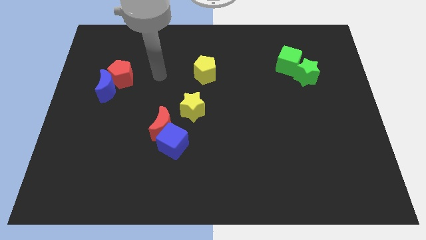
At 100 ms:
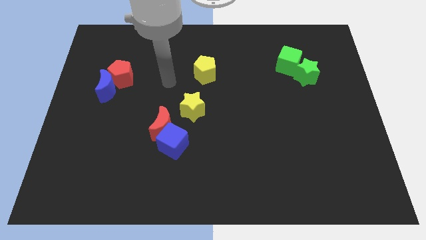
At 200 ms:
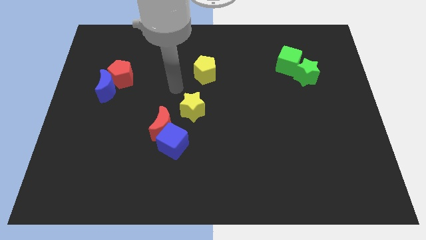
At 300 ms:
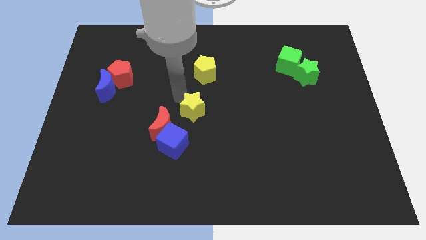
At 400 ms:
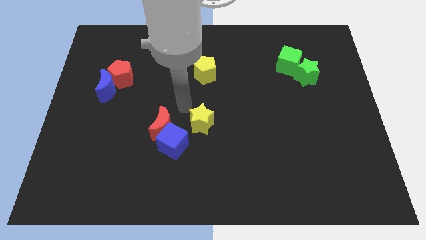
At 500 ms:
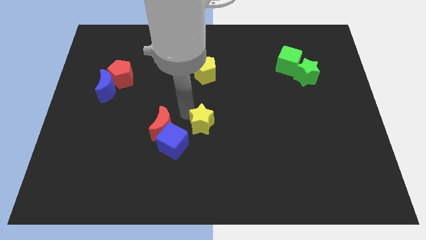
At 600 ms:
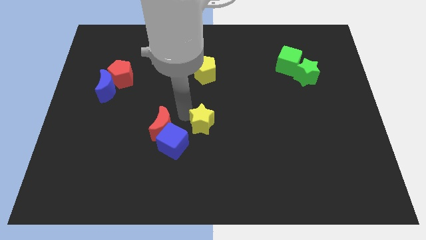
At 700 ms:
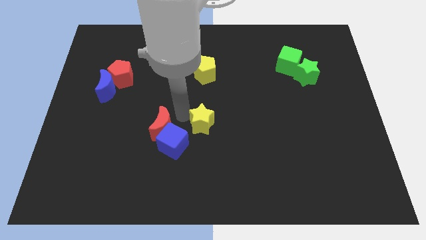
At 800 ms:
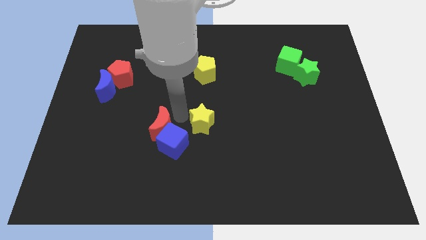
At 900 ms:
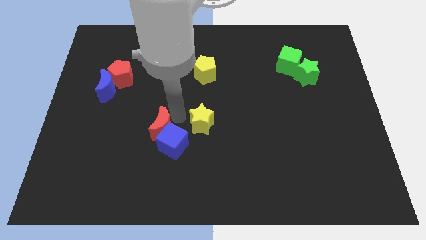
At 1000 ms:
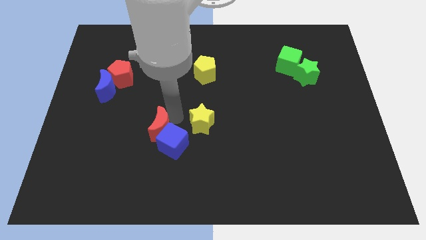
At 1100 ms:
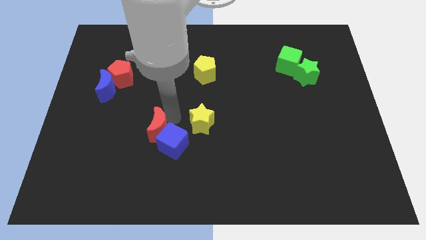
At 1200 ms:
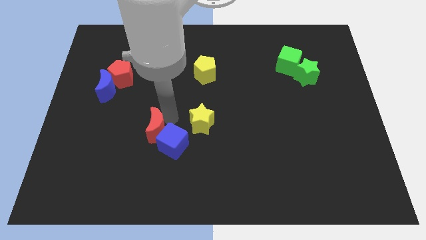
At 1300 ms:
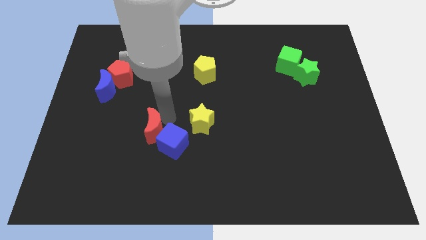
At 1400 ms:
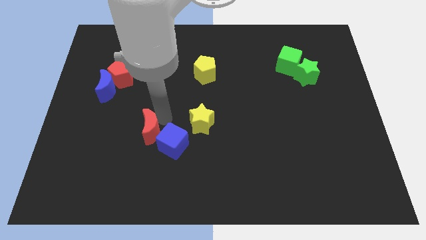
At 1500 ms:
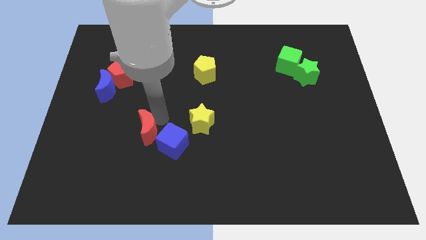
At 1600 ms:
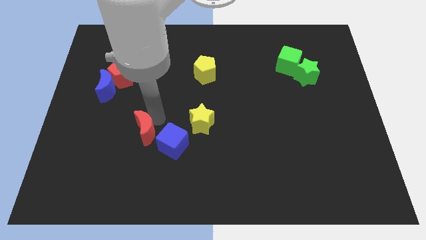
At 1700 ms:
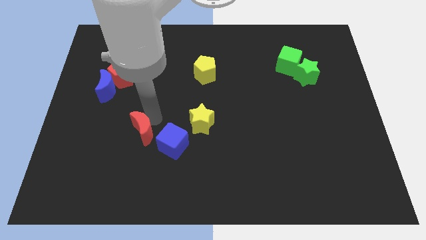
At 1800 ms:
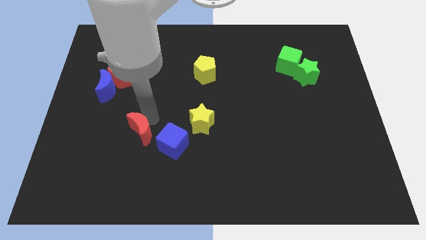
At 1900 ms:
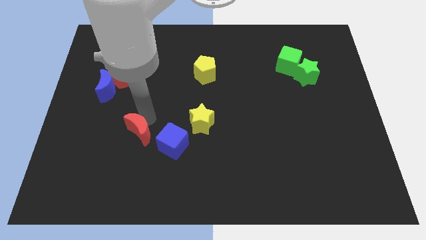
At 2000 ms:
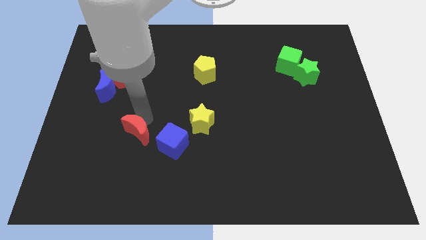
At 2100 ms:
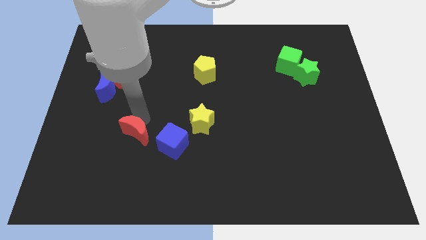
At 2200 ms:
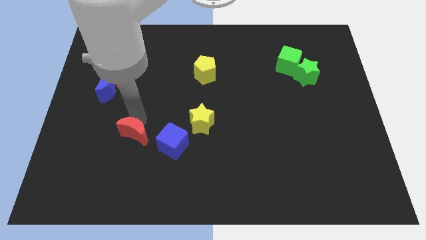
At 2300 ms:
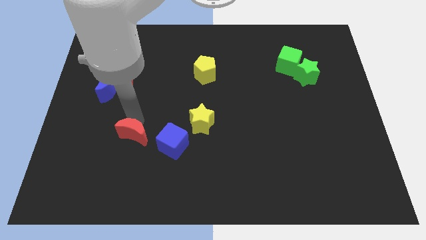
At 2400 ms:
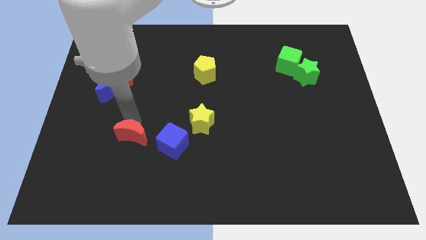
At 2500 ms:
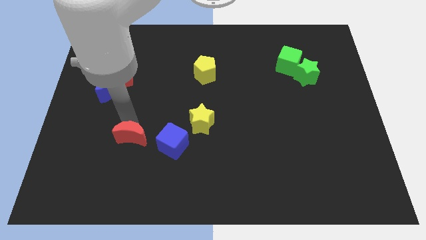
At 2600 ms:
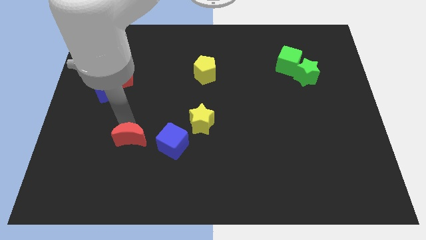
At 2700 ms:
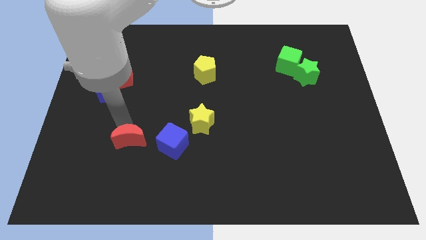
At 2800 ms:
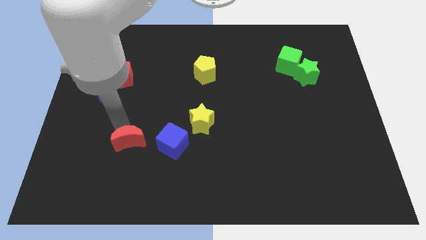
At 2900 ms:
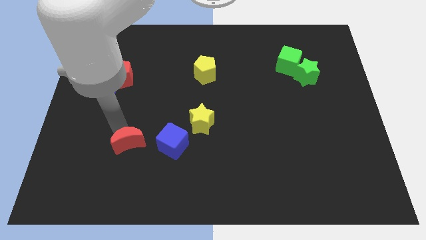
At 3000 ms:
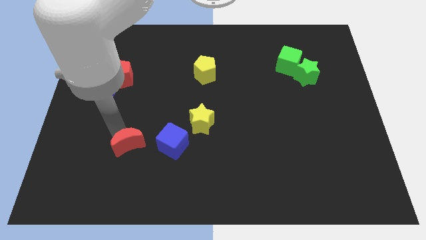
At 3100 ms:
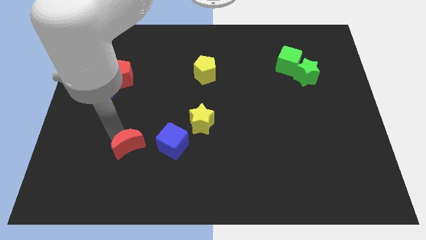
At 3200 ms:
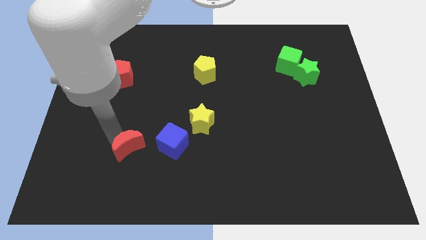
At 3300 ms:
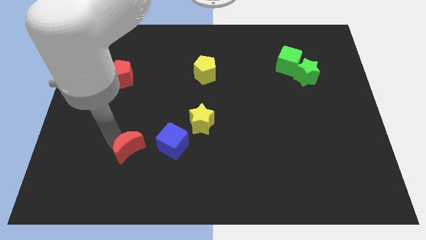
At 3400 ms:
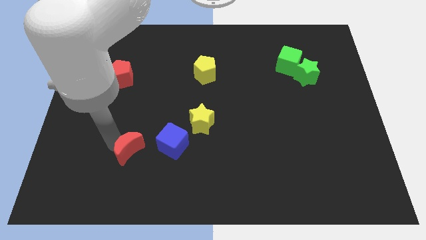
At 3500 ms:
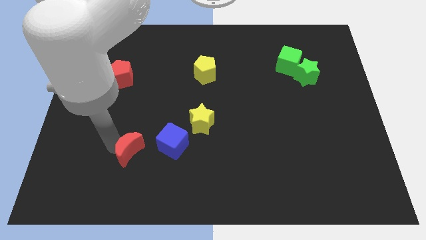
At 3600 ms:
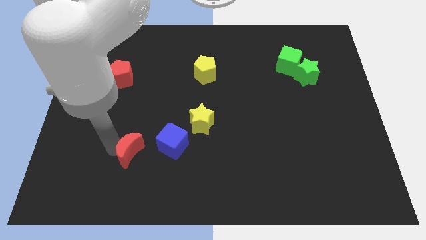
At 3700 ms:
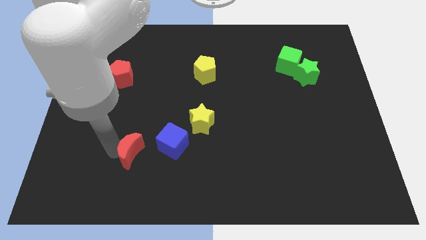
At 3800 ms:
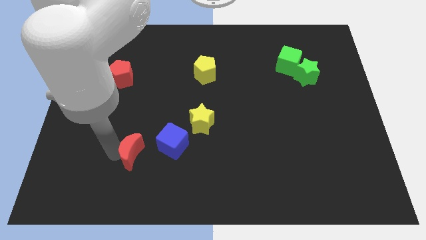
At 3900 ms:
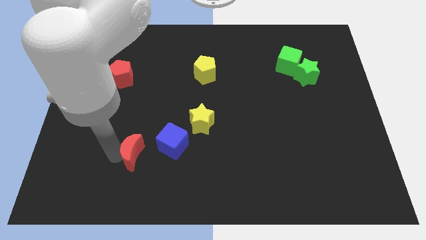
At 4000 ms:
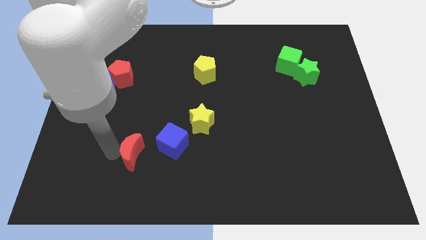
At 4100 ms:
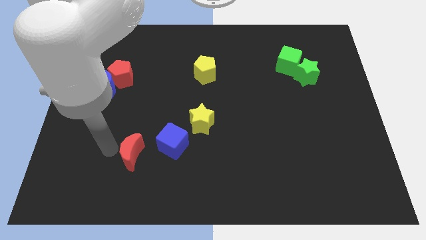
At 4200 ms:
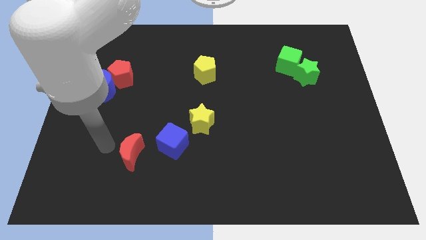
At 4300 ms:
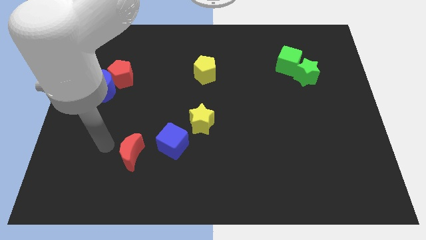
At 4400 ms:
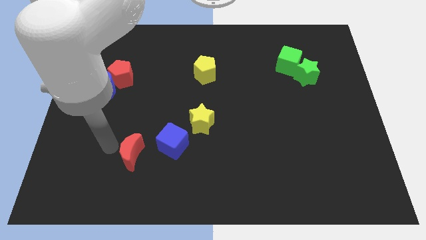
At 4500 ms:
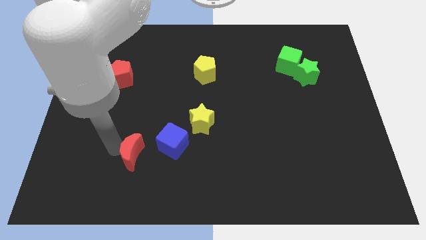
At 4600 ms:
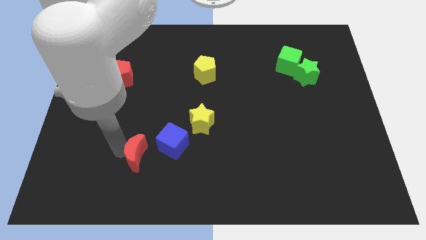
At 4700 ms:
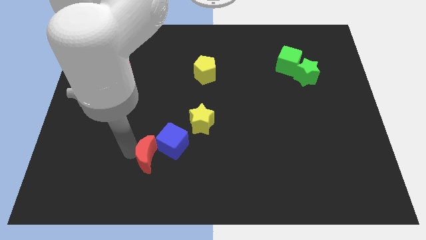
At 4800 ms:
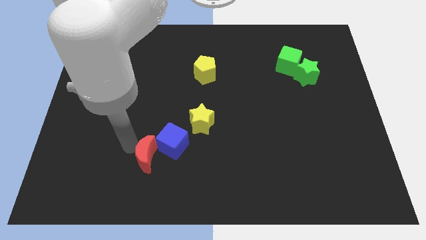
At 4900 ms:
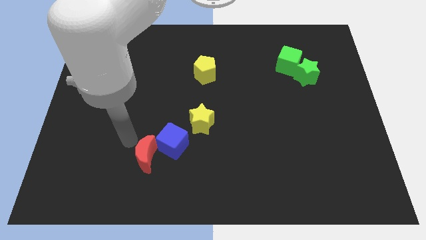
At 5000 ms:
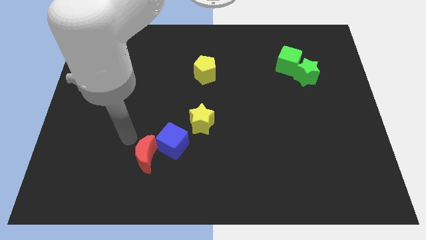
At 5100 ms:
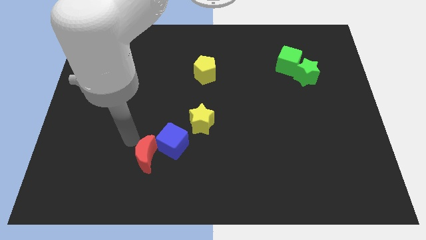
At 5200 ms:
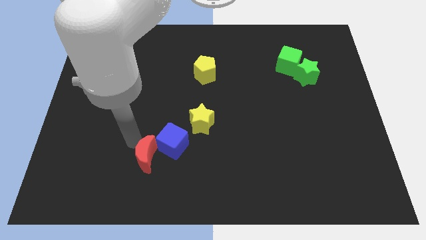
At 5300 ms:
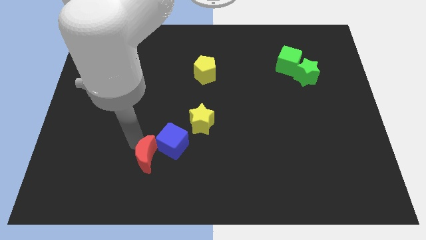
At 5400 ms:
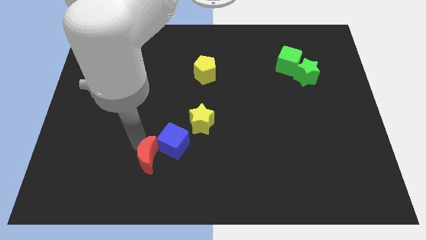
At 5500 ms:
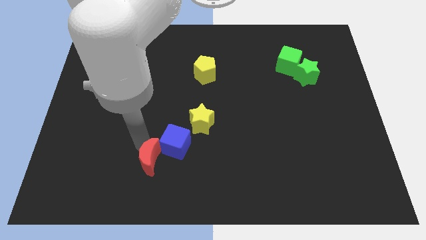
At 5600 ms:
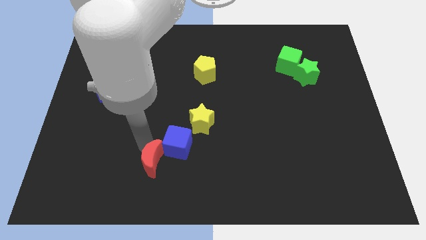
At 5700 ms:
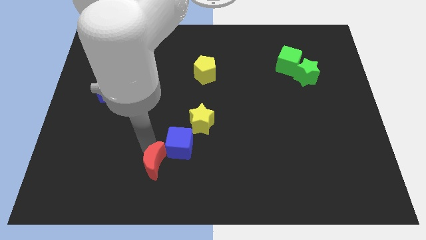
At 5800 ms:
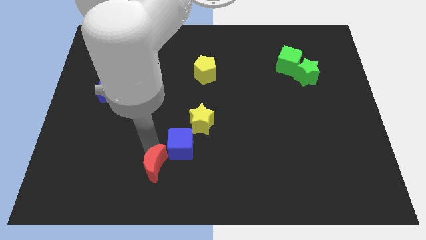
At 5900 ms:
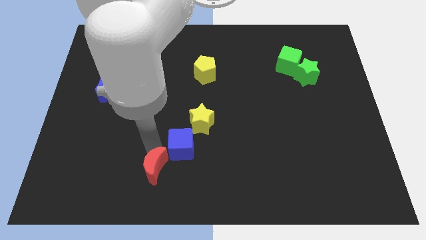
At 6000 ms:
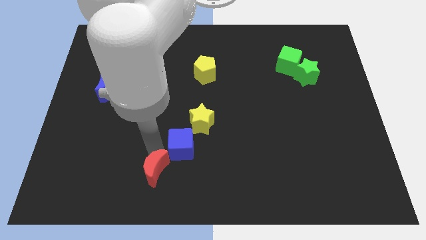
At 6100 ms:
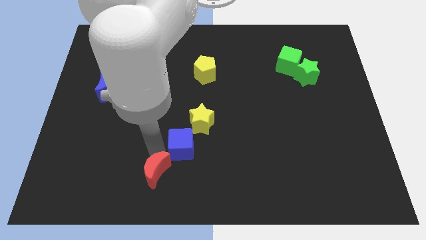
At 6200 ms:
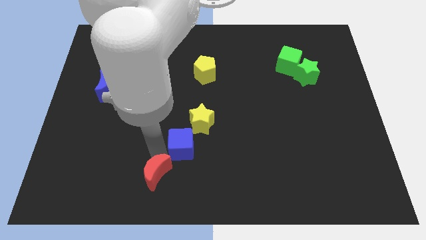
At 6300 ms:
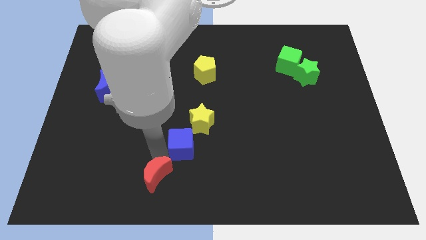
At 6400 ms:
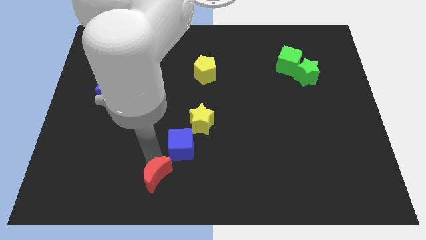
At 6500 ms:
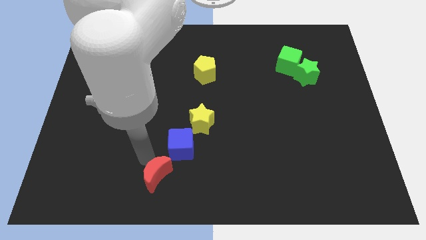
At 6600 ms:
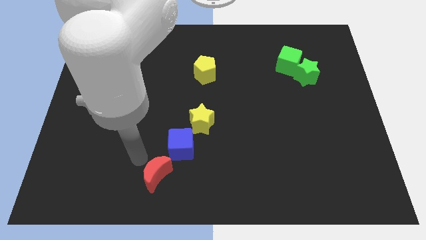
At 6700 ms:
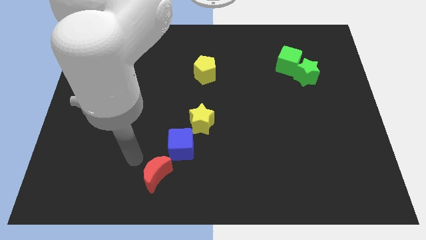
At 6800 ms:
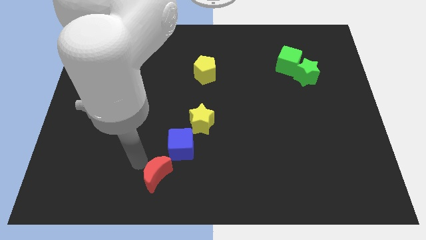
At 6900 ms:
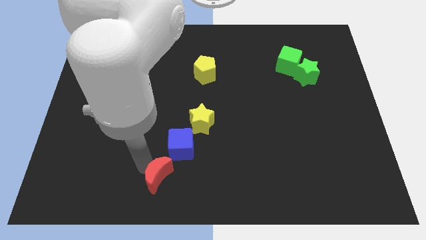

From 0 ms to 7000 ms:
move the red moon to the bottom
